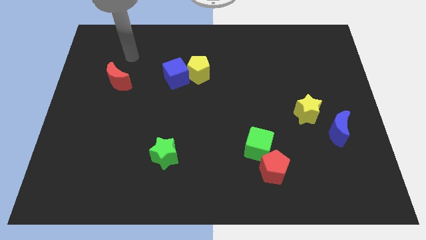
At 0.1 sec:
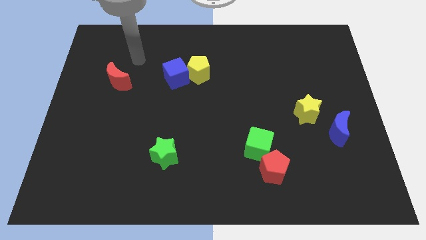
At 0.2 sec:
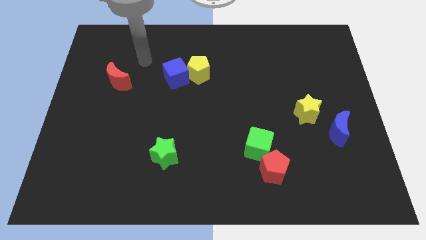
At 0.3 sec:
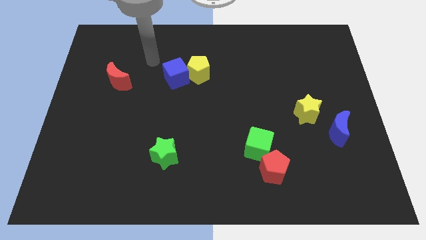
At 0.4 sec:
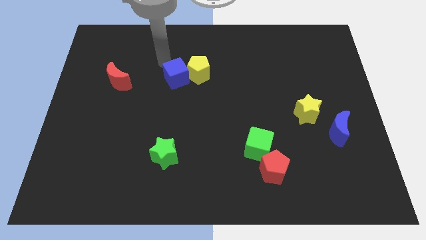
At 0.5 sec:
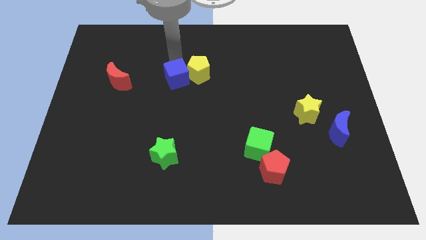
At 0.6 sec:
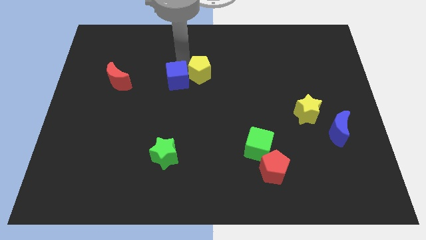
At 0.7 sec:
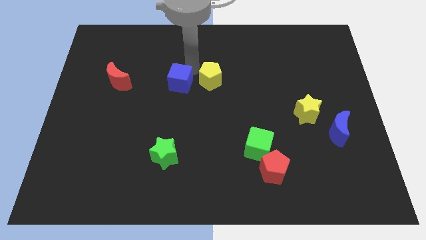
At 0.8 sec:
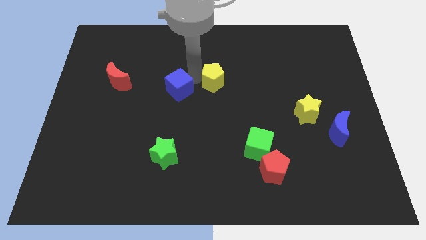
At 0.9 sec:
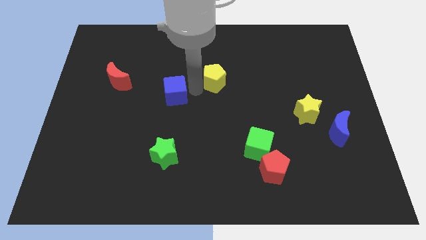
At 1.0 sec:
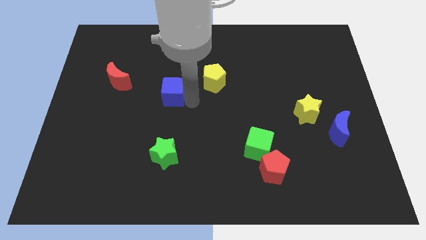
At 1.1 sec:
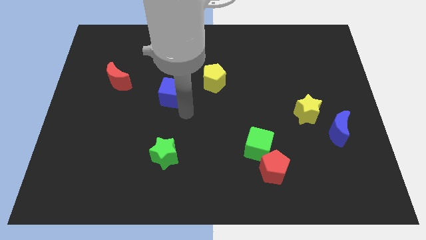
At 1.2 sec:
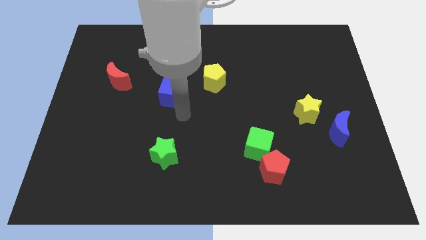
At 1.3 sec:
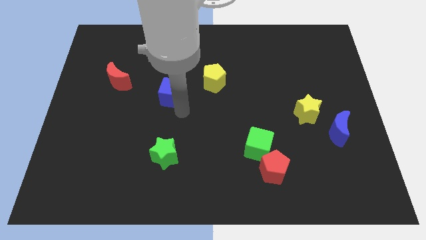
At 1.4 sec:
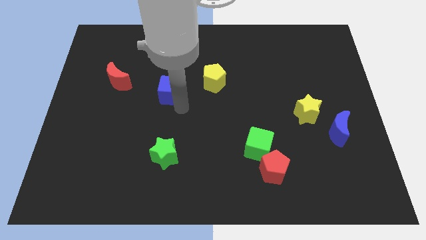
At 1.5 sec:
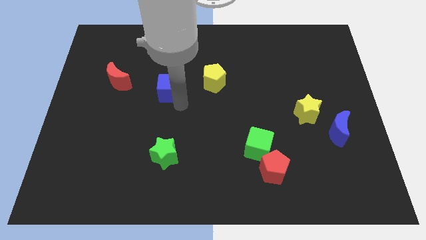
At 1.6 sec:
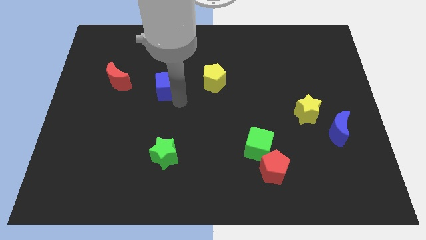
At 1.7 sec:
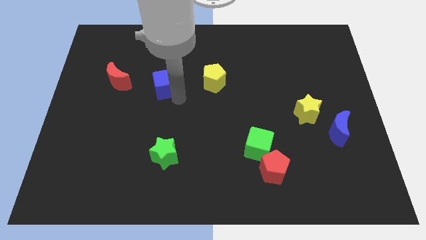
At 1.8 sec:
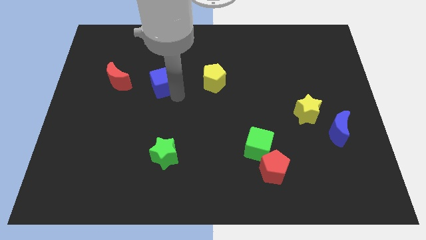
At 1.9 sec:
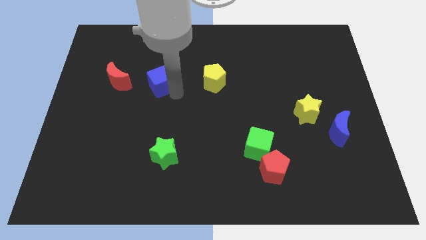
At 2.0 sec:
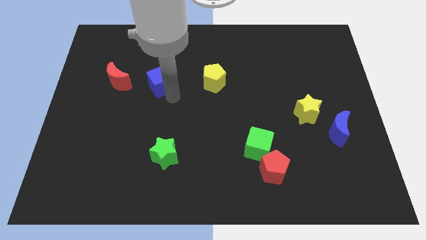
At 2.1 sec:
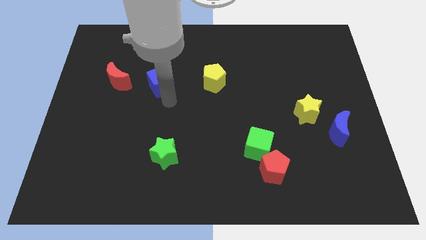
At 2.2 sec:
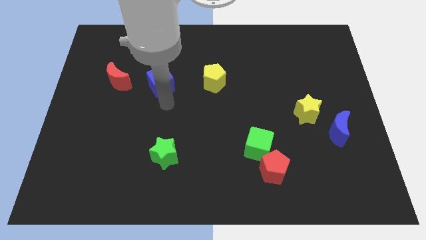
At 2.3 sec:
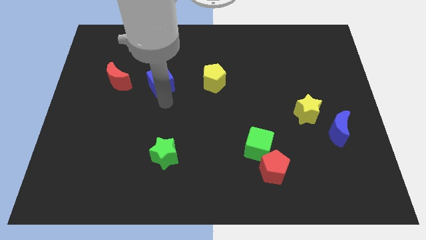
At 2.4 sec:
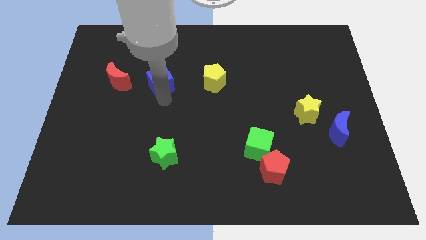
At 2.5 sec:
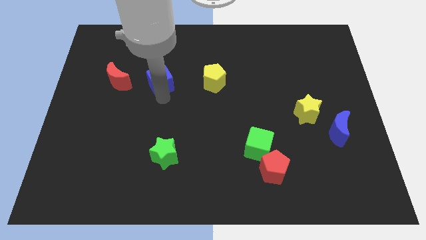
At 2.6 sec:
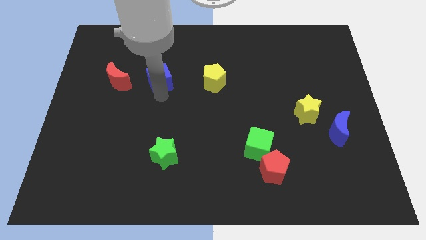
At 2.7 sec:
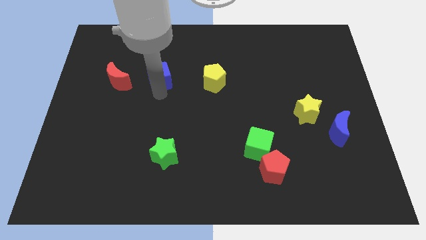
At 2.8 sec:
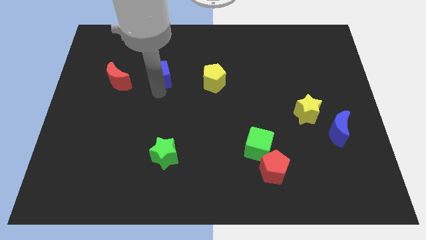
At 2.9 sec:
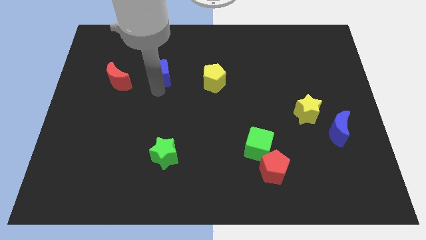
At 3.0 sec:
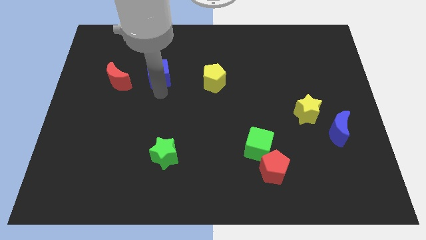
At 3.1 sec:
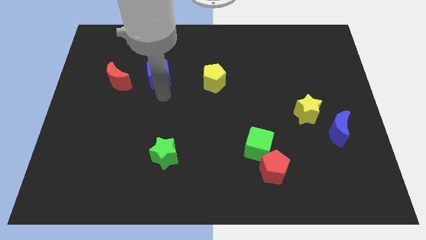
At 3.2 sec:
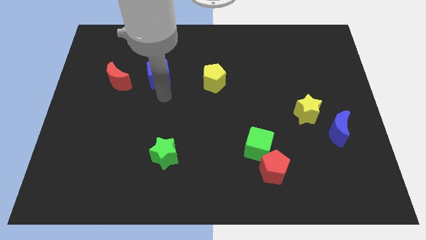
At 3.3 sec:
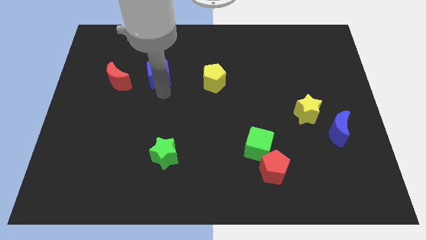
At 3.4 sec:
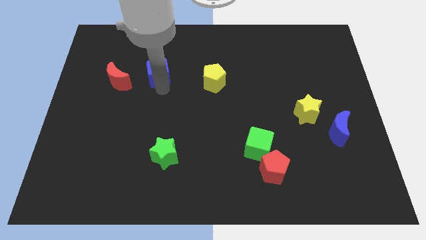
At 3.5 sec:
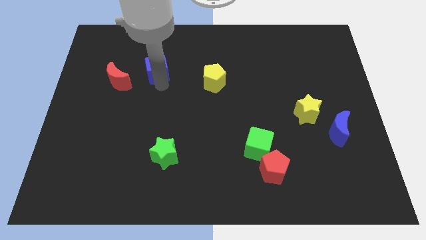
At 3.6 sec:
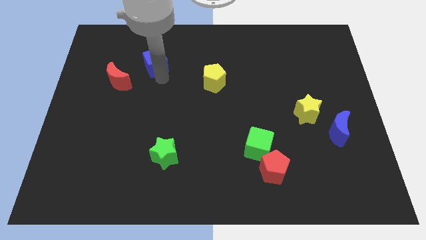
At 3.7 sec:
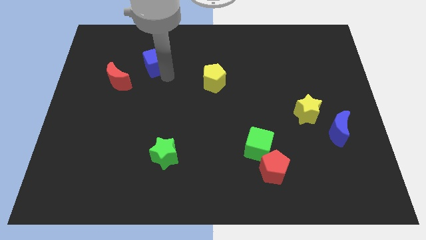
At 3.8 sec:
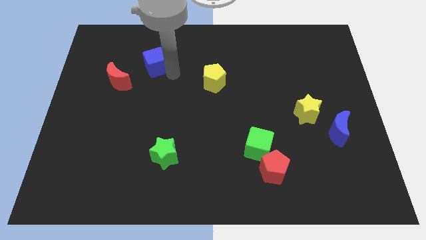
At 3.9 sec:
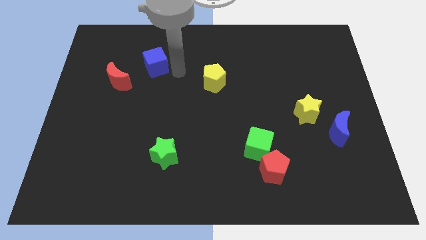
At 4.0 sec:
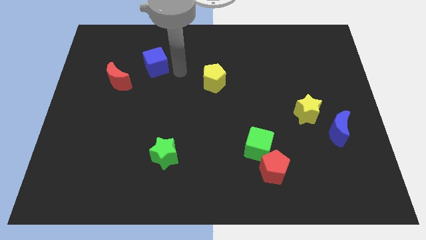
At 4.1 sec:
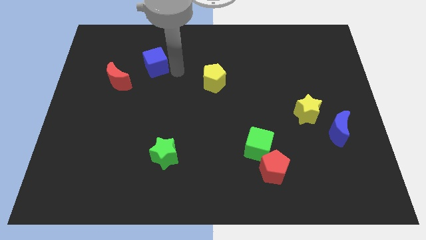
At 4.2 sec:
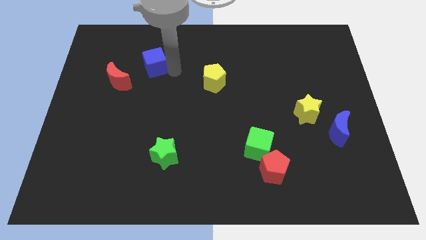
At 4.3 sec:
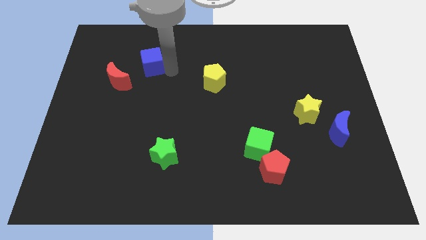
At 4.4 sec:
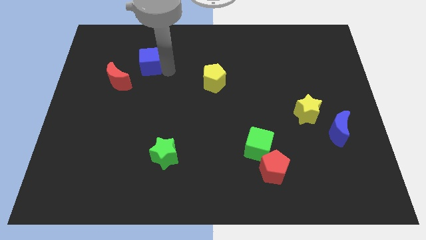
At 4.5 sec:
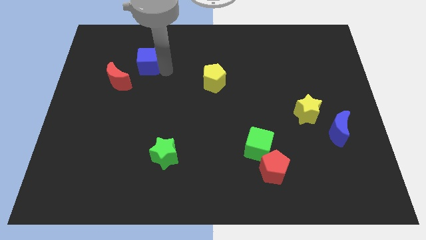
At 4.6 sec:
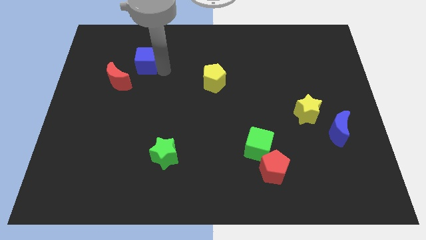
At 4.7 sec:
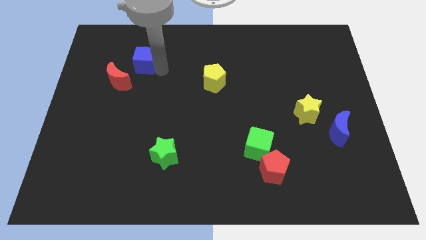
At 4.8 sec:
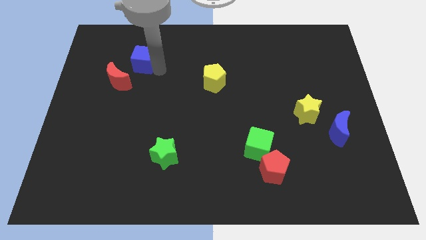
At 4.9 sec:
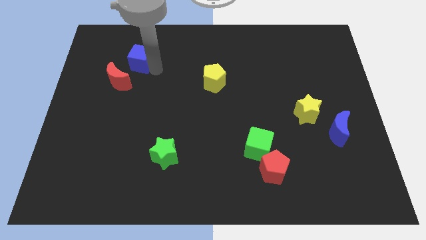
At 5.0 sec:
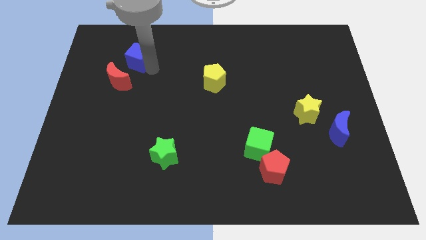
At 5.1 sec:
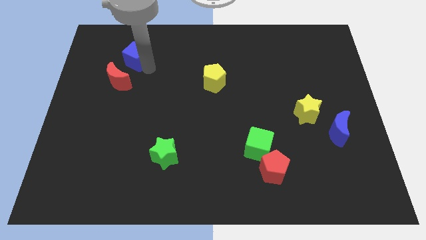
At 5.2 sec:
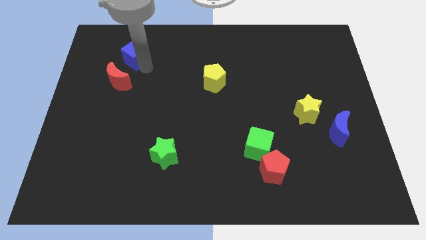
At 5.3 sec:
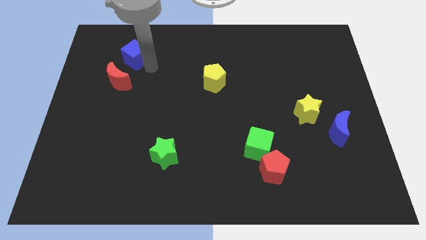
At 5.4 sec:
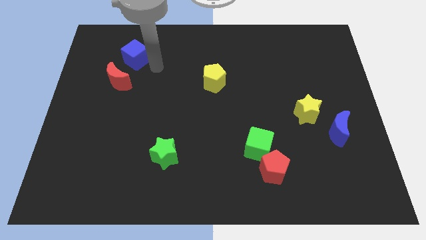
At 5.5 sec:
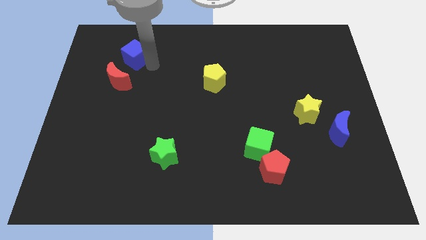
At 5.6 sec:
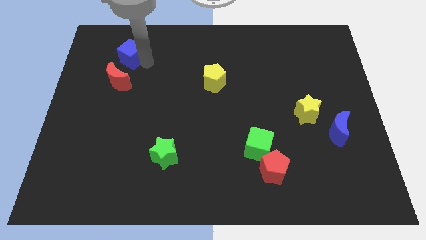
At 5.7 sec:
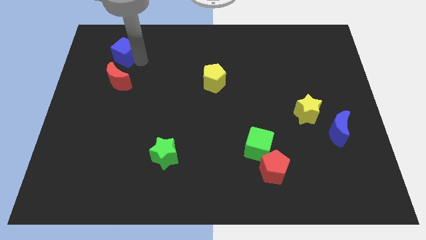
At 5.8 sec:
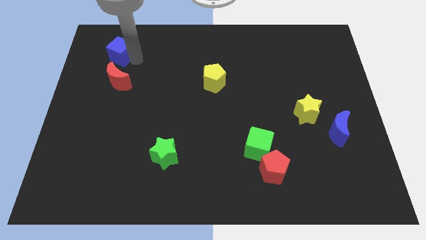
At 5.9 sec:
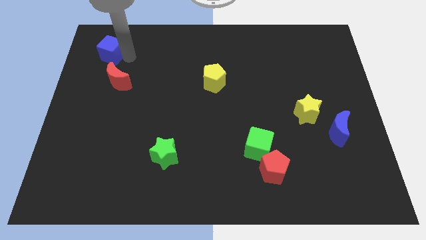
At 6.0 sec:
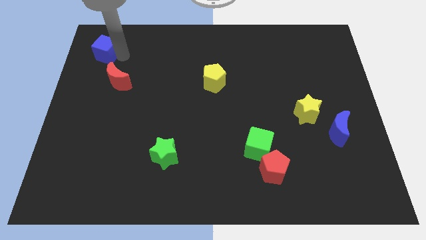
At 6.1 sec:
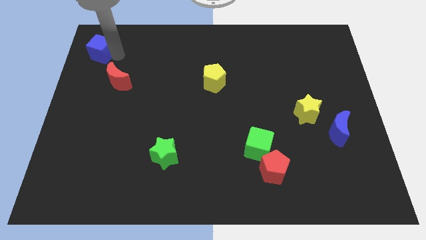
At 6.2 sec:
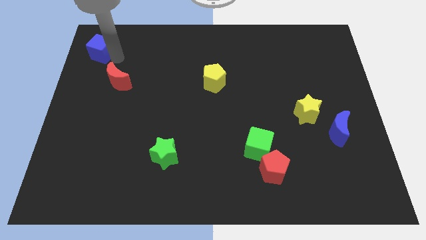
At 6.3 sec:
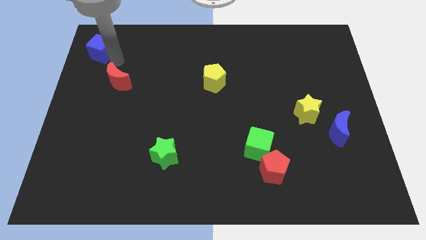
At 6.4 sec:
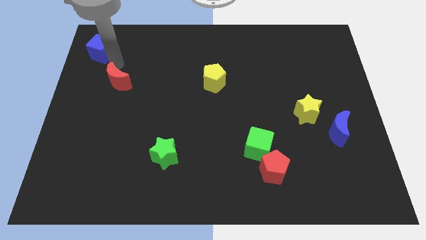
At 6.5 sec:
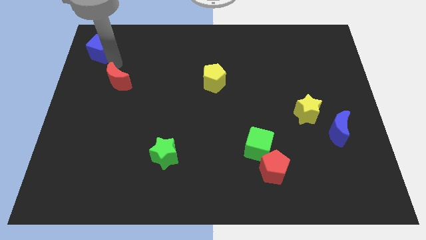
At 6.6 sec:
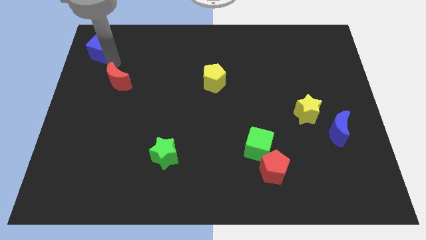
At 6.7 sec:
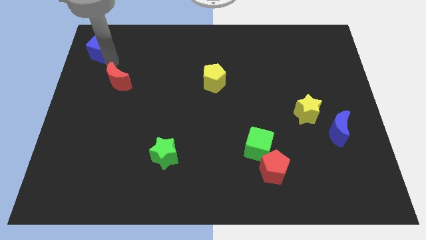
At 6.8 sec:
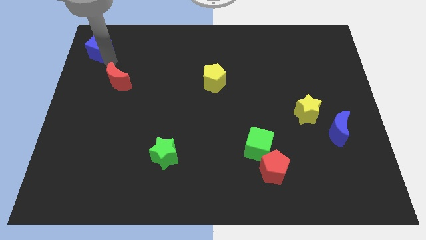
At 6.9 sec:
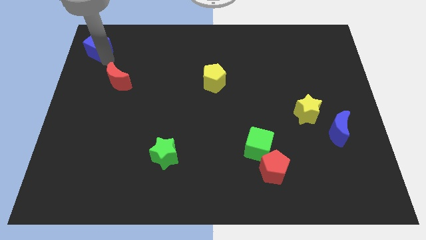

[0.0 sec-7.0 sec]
slide the blue cube to the top left
